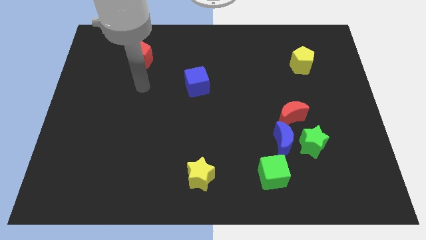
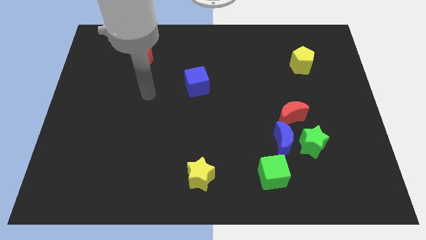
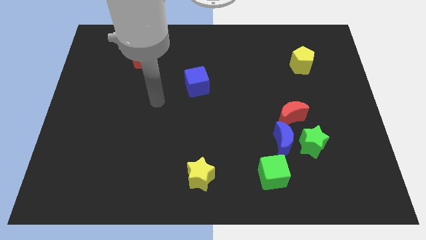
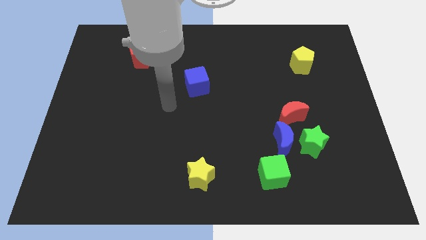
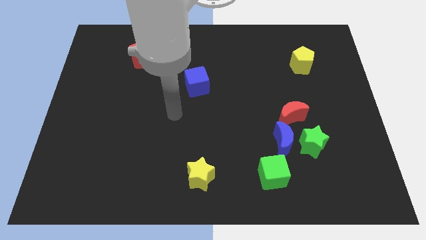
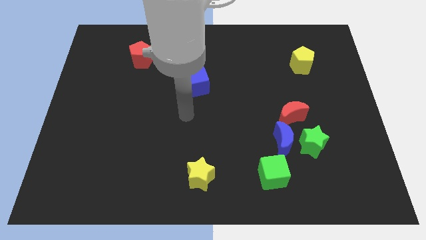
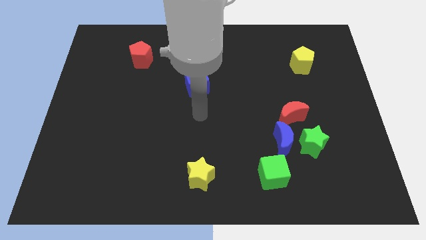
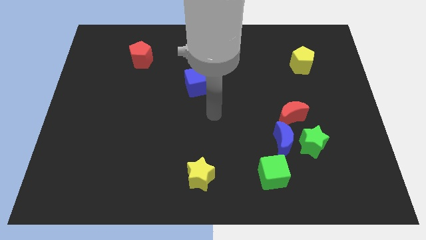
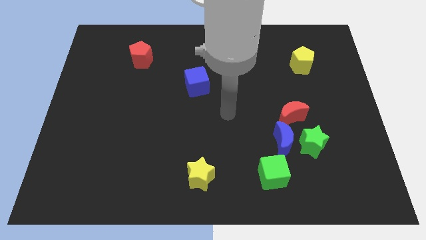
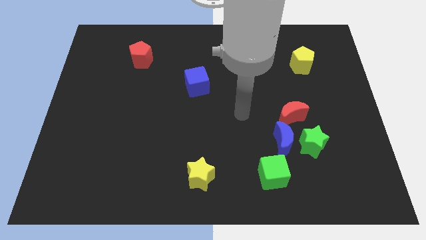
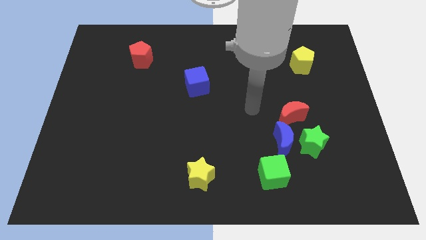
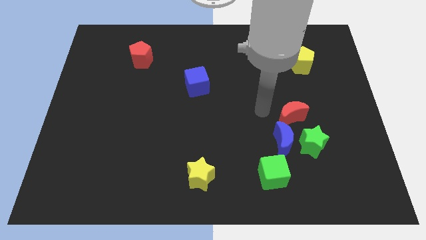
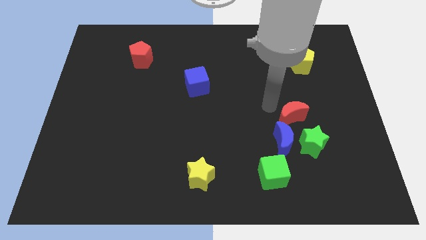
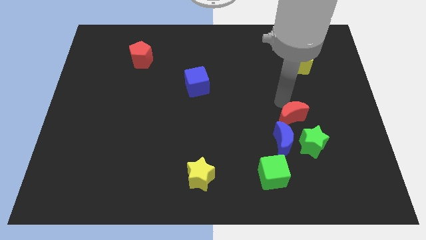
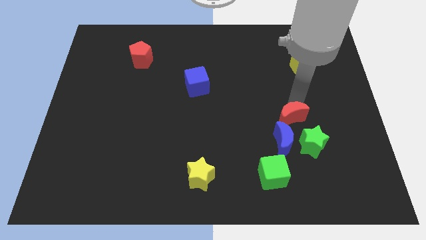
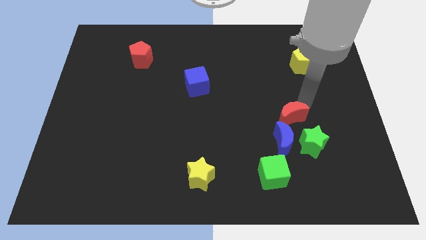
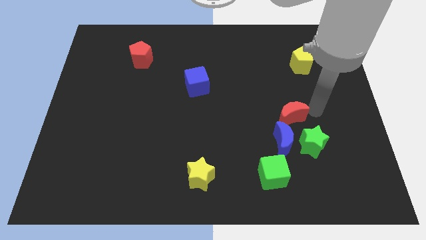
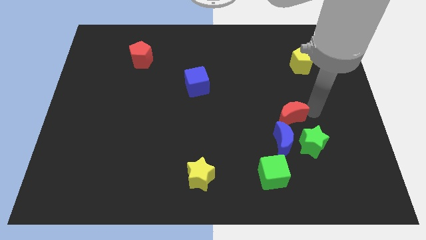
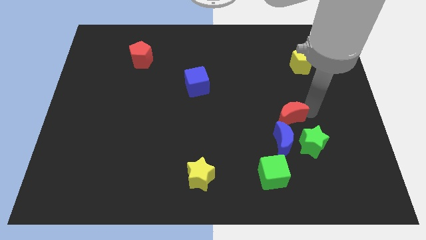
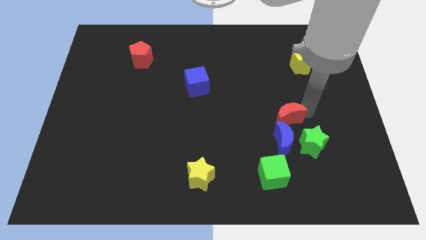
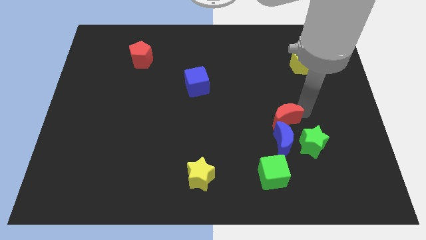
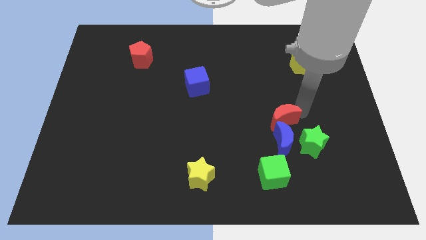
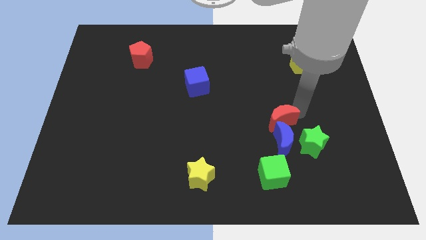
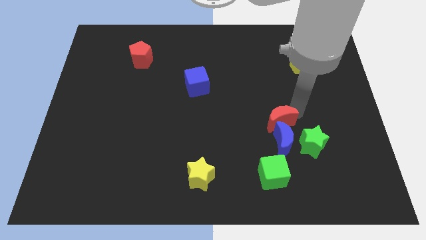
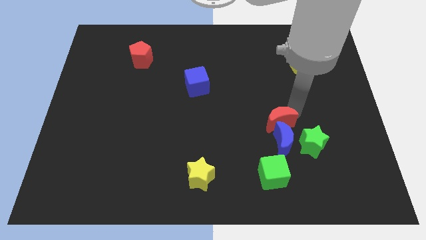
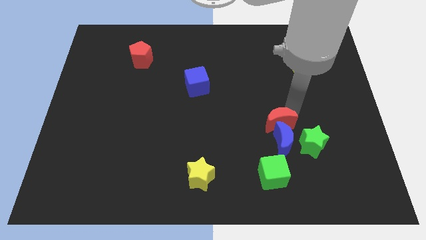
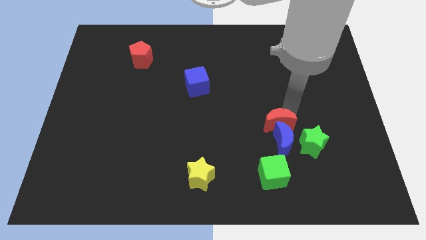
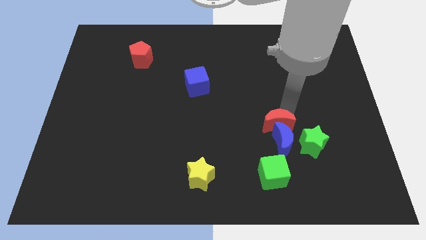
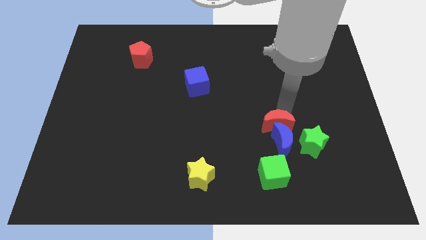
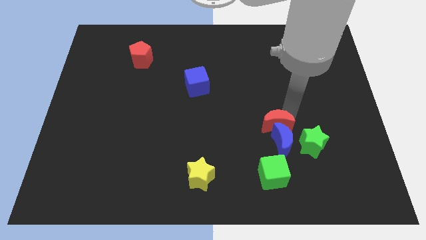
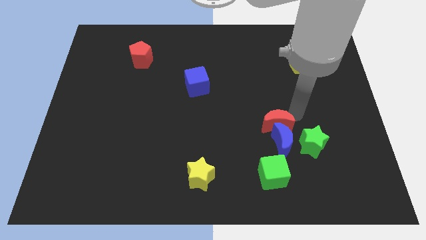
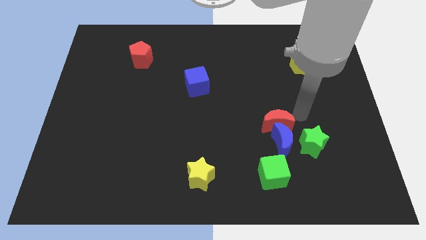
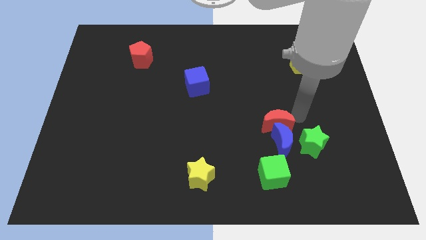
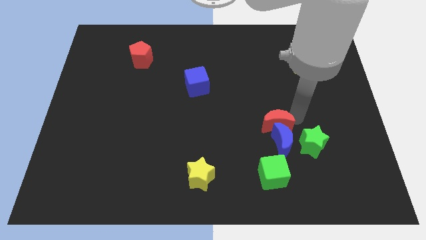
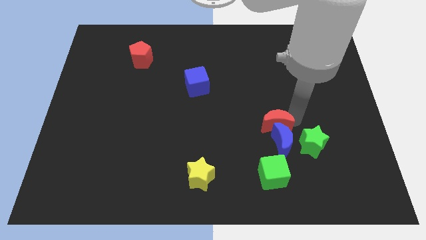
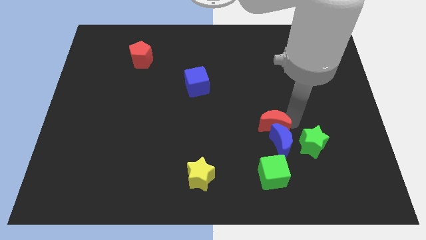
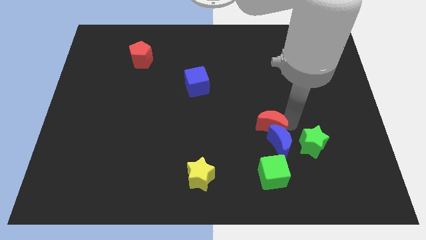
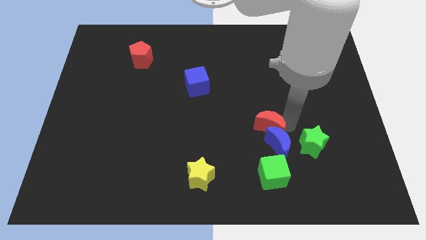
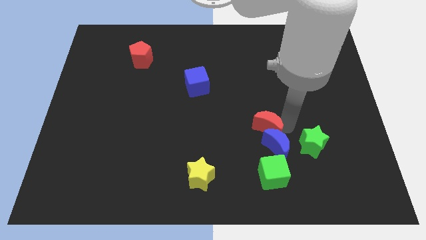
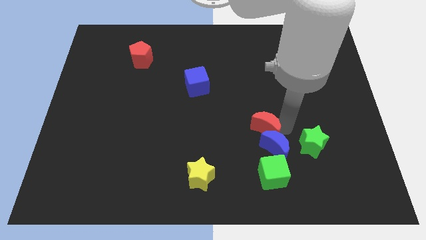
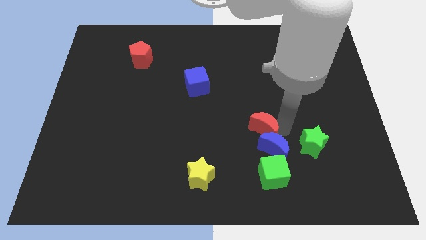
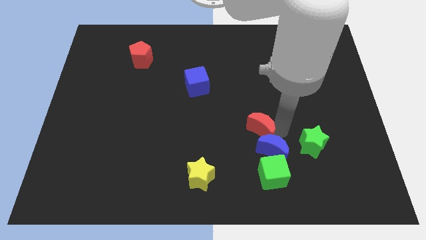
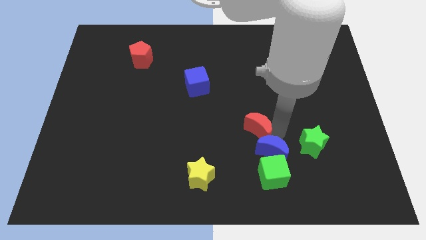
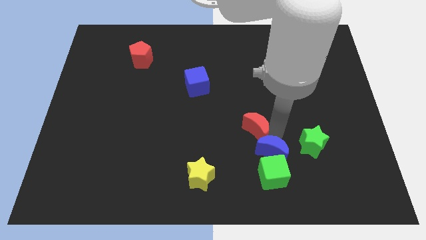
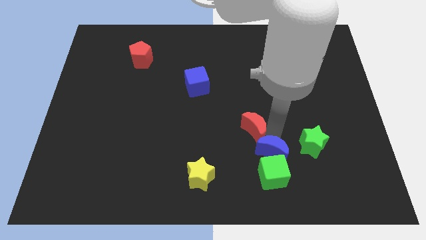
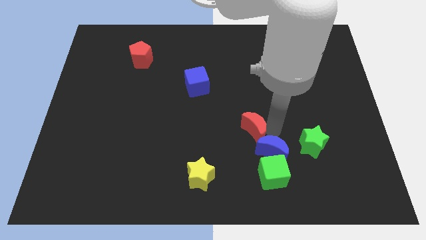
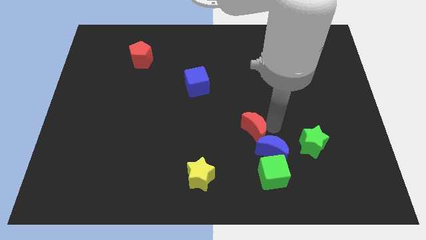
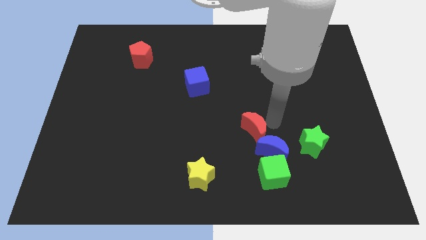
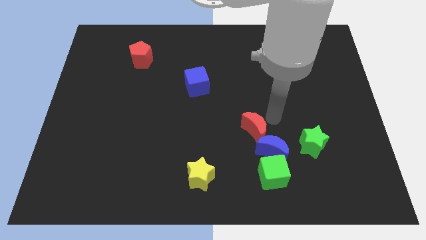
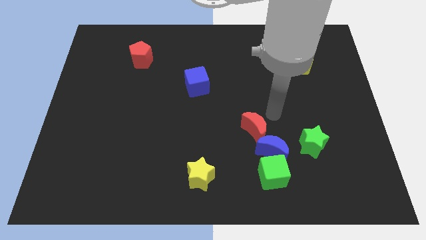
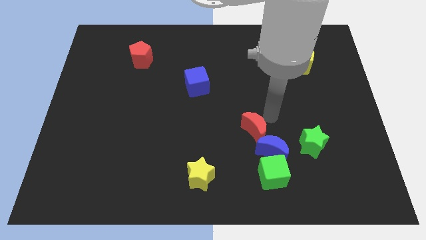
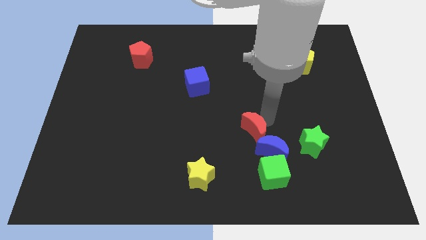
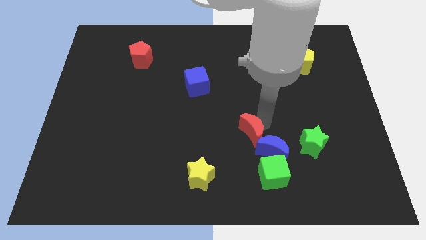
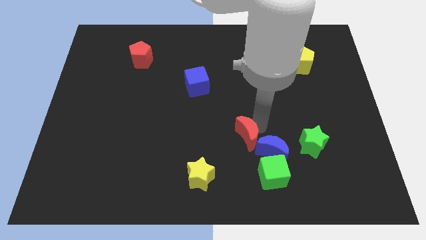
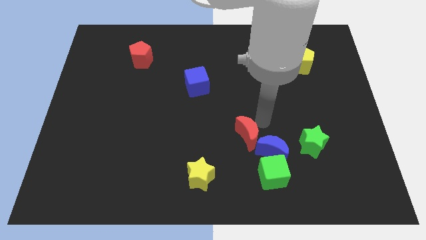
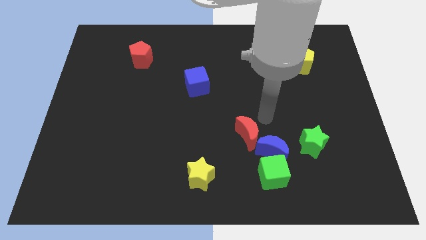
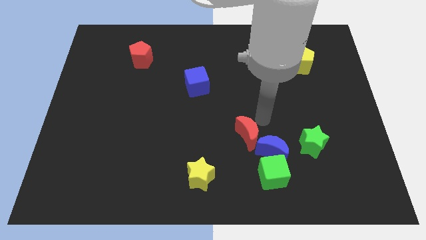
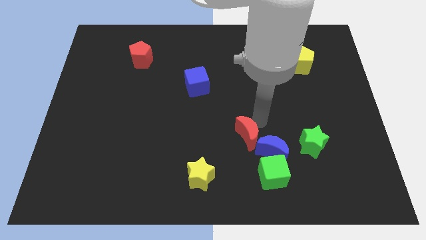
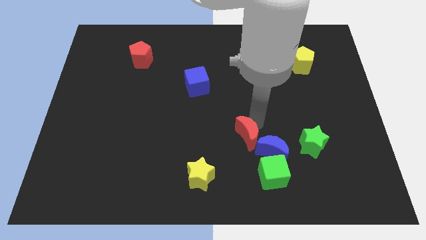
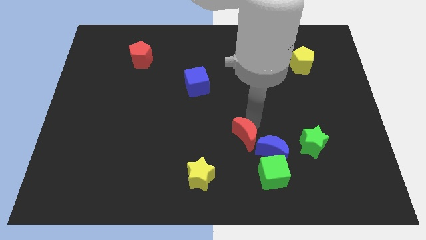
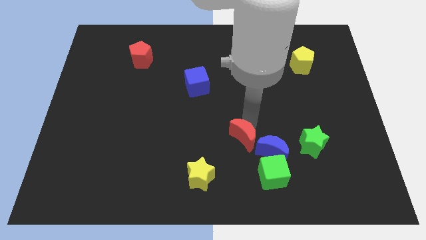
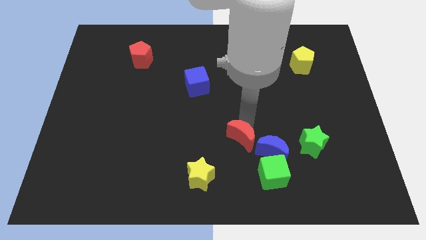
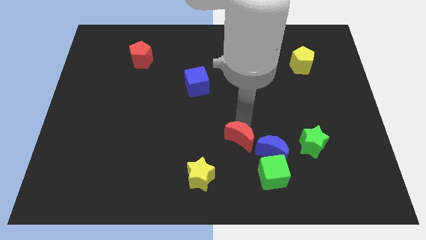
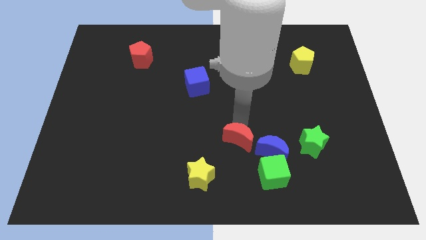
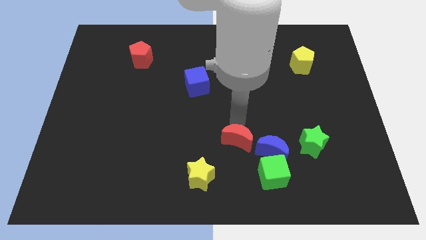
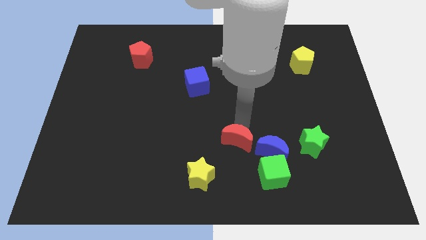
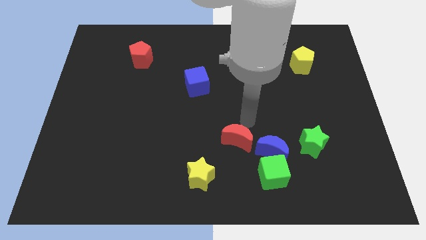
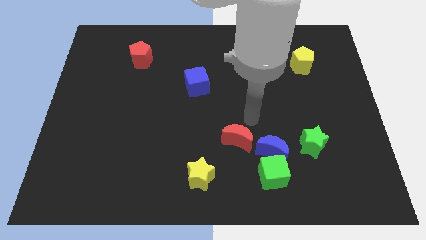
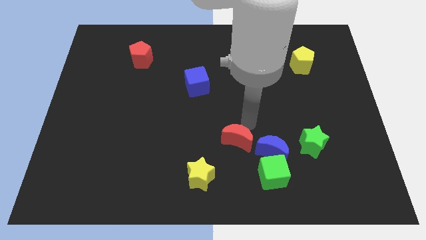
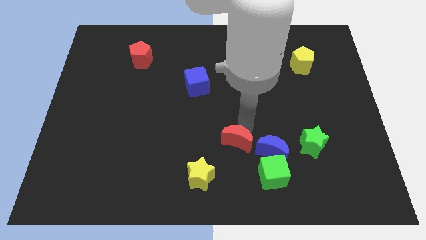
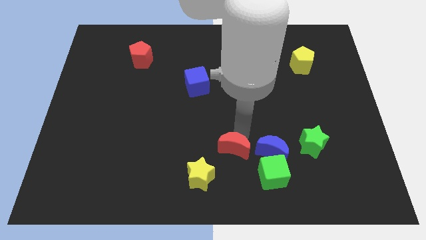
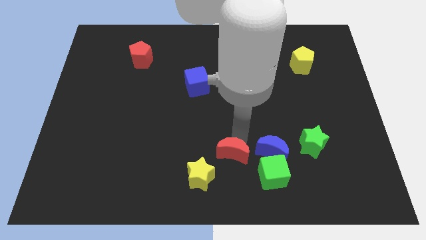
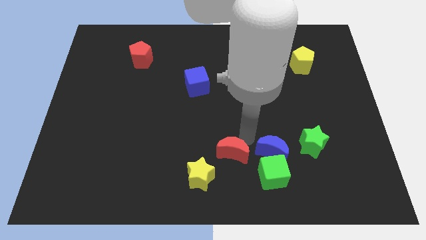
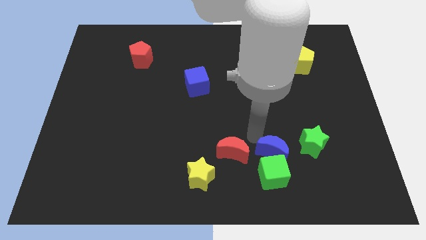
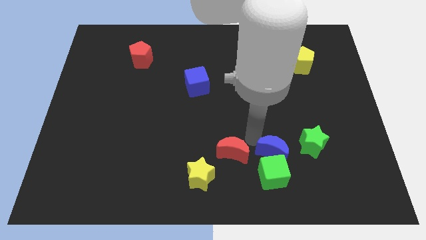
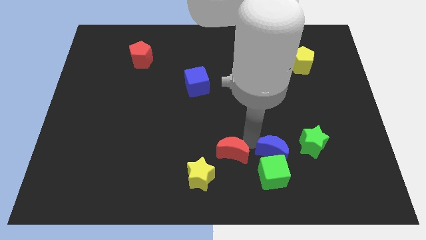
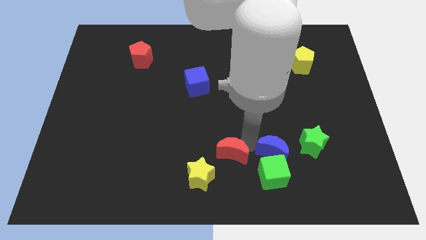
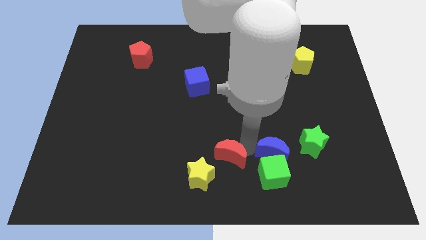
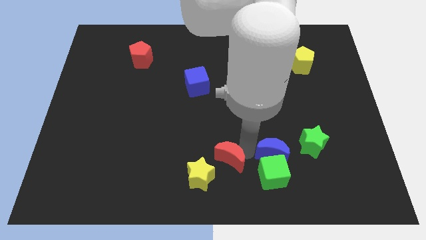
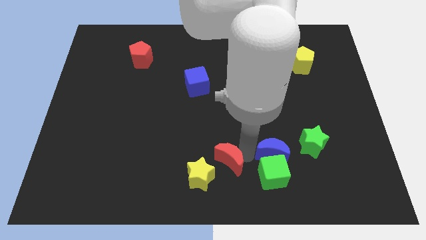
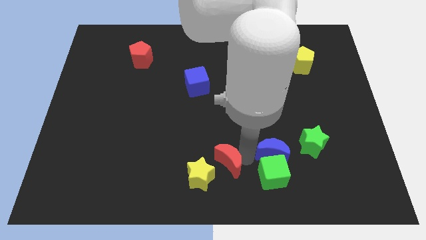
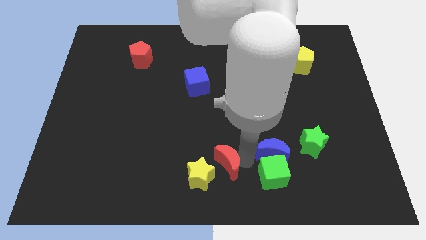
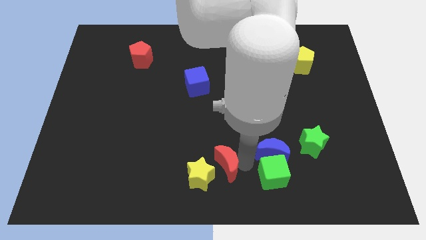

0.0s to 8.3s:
push the red moon to the yellow star
